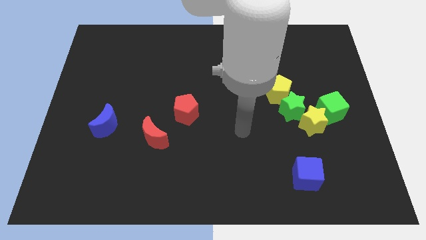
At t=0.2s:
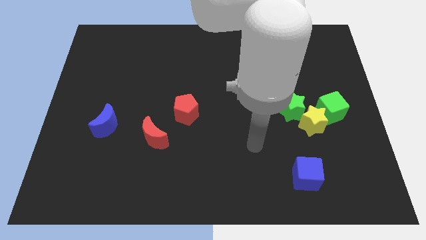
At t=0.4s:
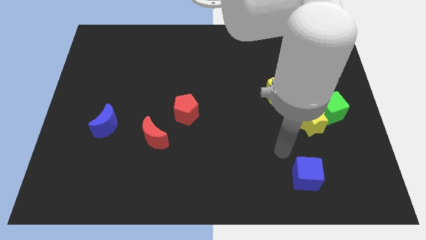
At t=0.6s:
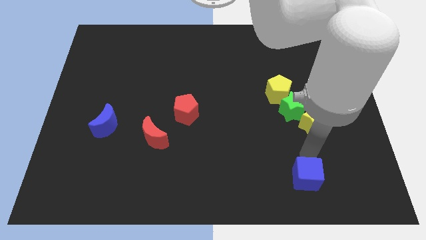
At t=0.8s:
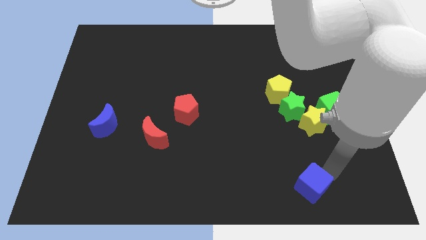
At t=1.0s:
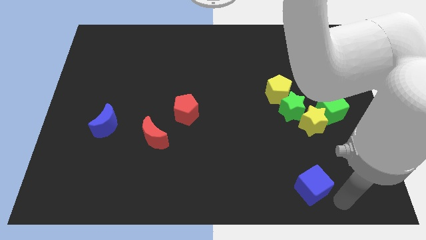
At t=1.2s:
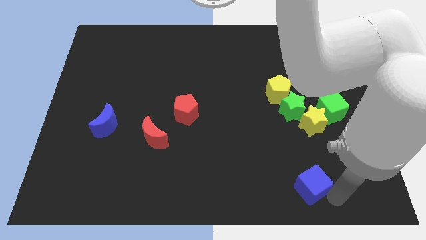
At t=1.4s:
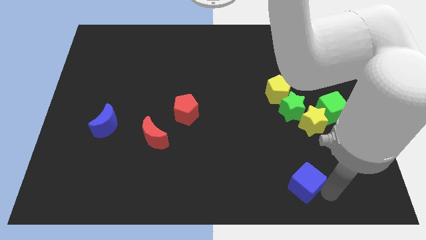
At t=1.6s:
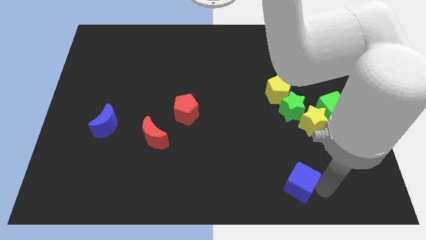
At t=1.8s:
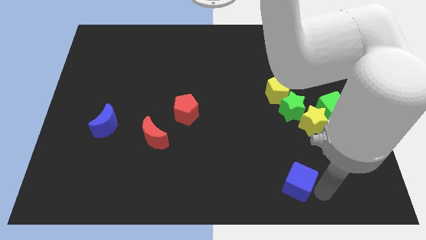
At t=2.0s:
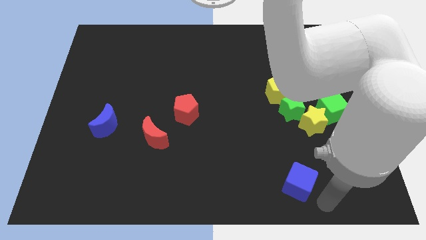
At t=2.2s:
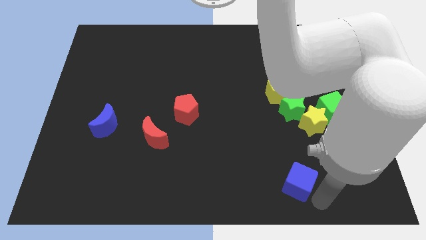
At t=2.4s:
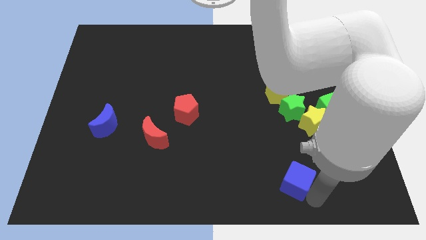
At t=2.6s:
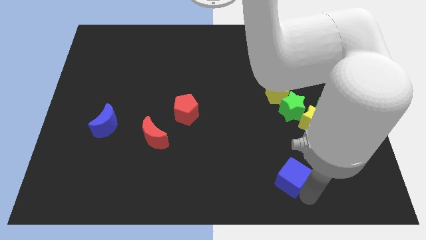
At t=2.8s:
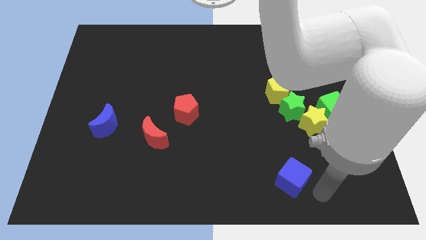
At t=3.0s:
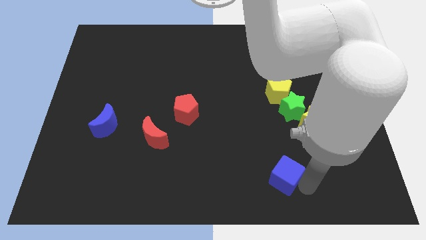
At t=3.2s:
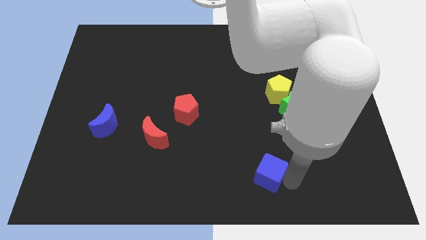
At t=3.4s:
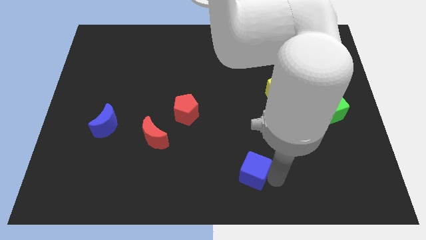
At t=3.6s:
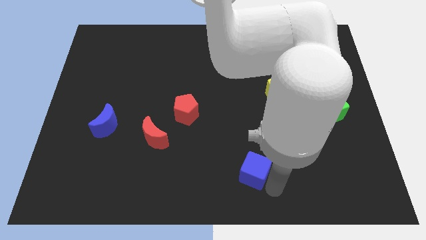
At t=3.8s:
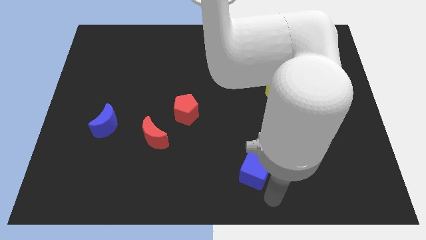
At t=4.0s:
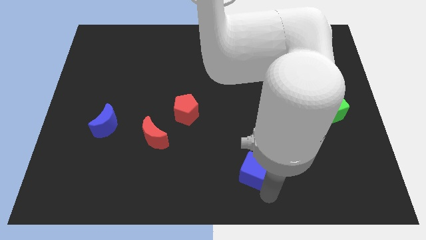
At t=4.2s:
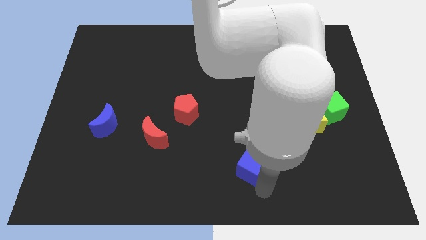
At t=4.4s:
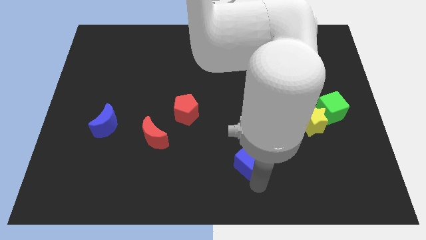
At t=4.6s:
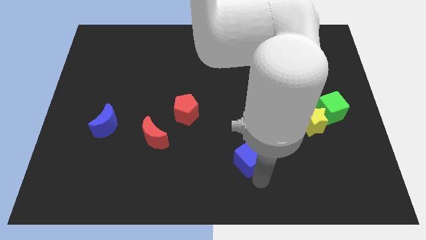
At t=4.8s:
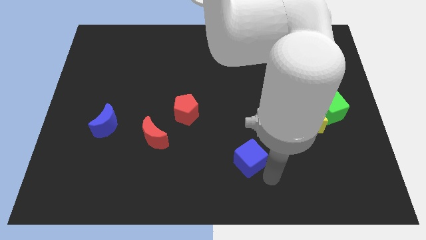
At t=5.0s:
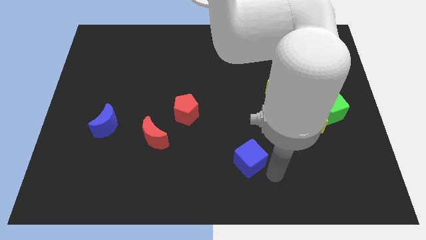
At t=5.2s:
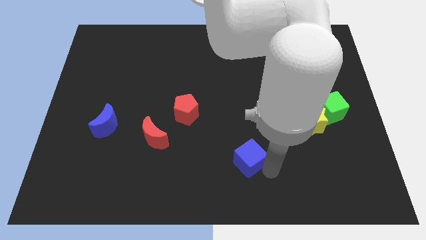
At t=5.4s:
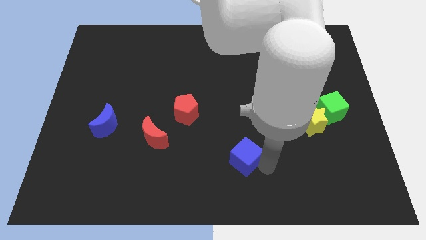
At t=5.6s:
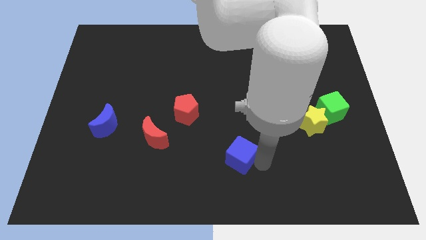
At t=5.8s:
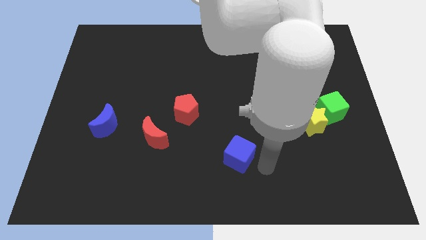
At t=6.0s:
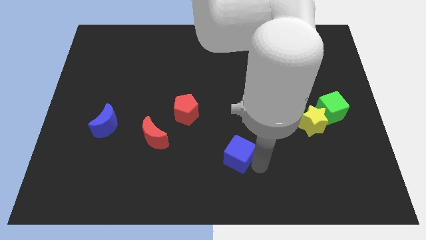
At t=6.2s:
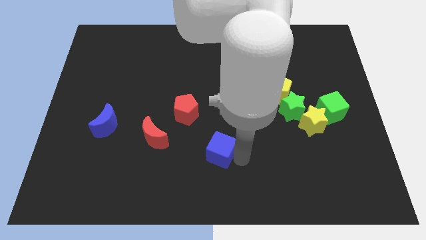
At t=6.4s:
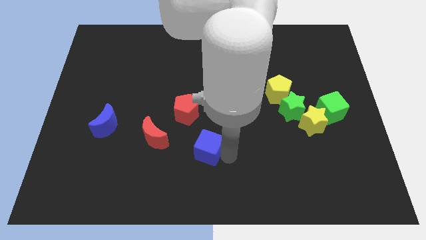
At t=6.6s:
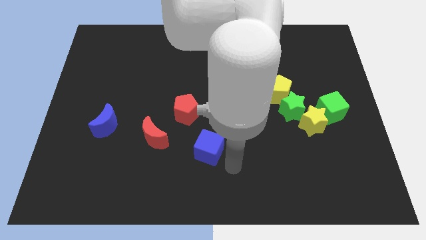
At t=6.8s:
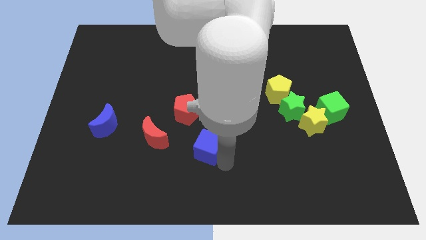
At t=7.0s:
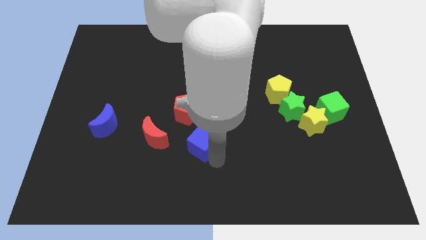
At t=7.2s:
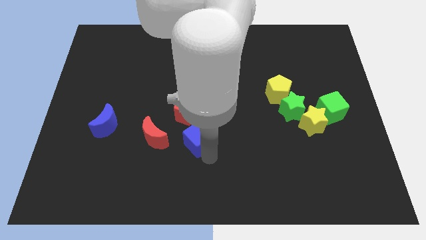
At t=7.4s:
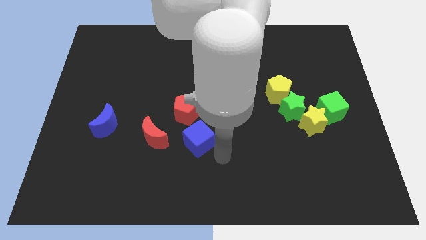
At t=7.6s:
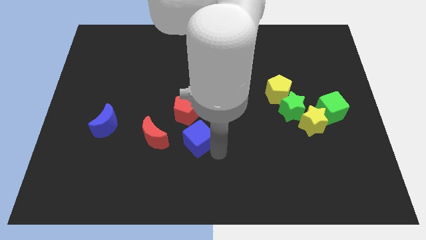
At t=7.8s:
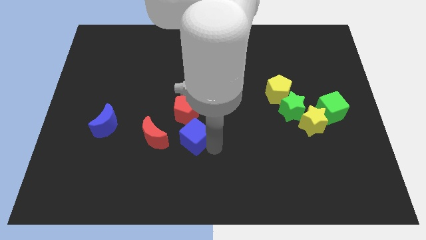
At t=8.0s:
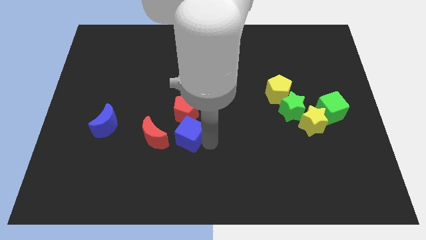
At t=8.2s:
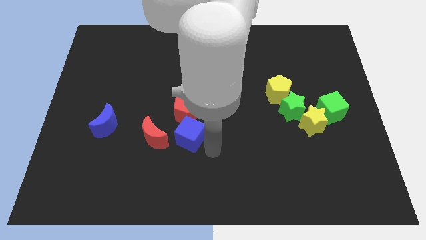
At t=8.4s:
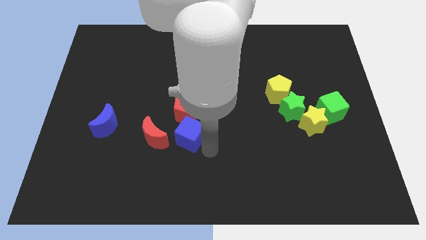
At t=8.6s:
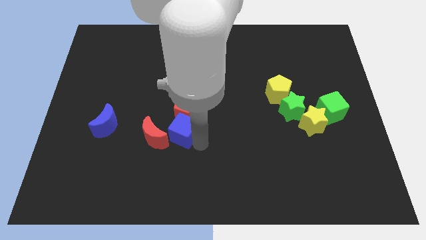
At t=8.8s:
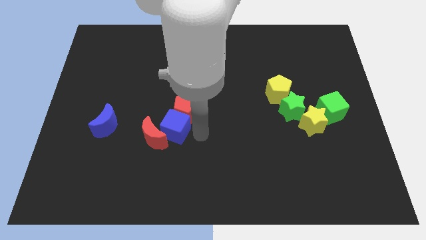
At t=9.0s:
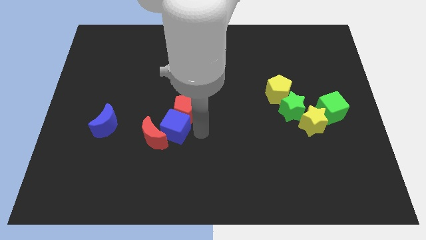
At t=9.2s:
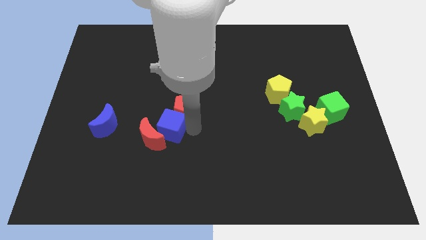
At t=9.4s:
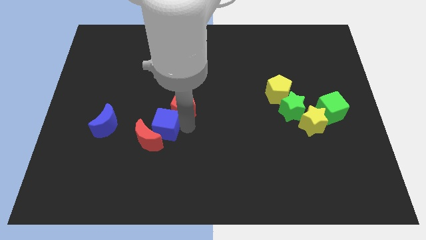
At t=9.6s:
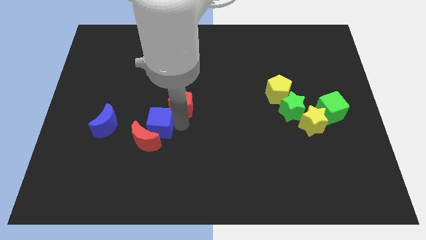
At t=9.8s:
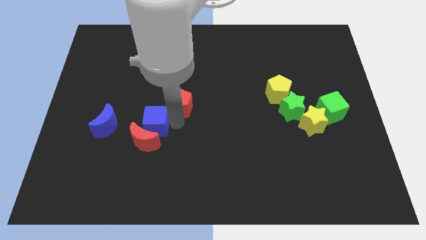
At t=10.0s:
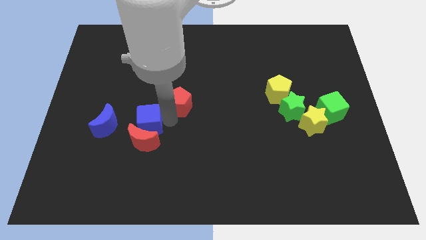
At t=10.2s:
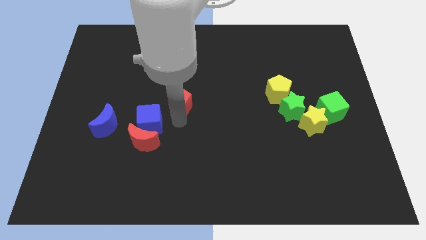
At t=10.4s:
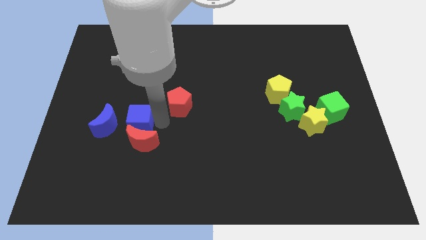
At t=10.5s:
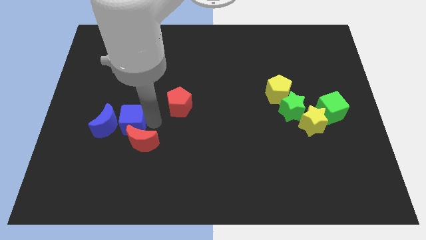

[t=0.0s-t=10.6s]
put the blue cube next to the blue moon

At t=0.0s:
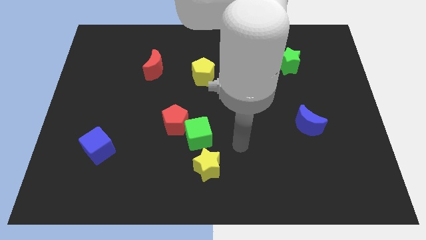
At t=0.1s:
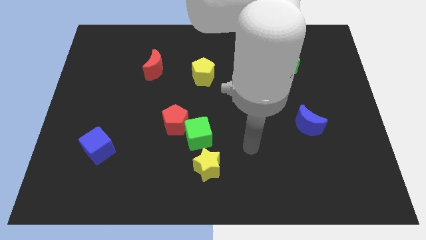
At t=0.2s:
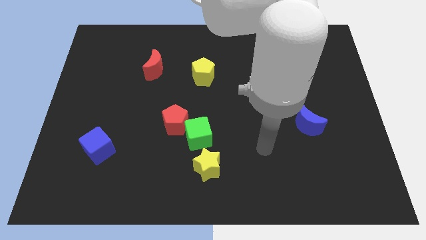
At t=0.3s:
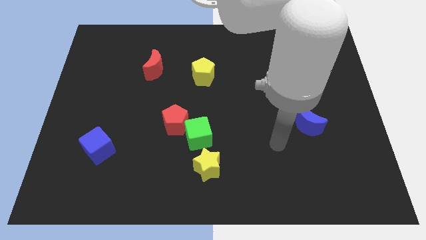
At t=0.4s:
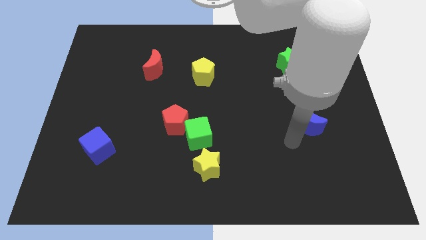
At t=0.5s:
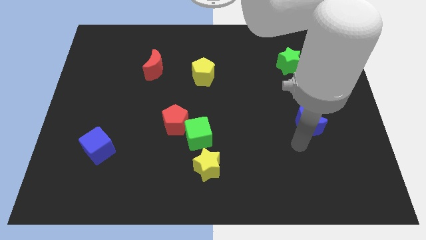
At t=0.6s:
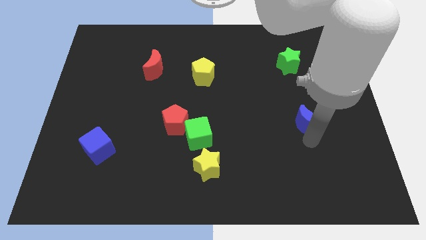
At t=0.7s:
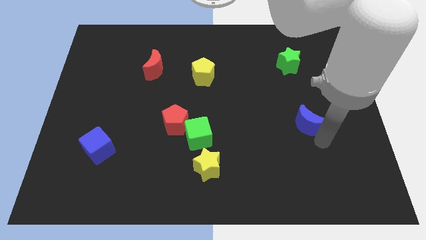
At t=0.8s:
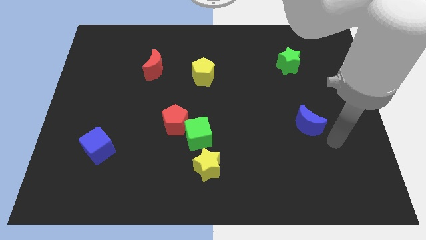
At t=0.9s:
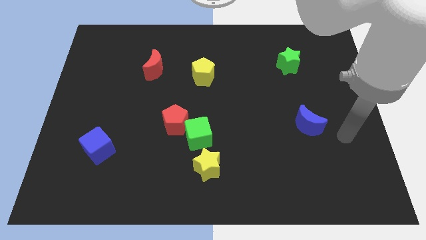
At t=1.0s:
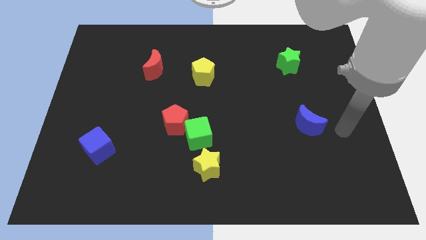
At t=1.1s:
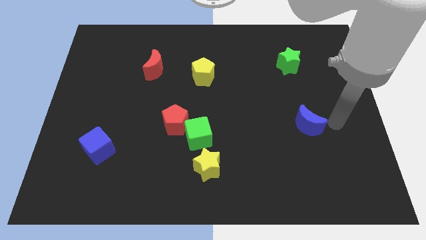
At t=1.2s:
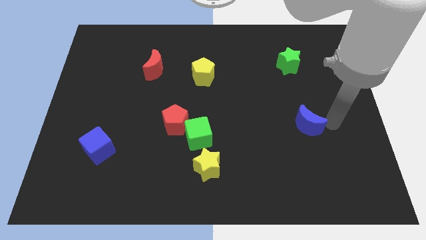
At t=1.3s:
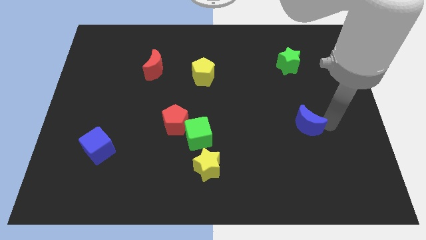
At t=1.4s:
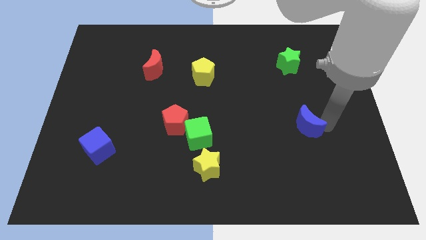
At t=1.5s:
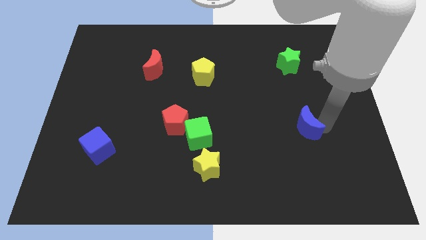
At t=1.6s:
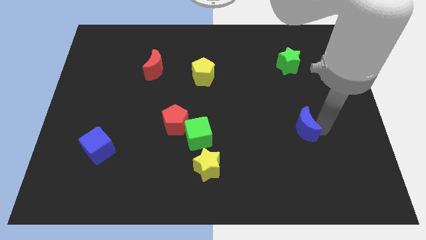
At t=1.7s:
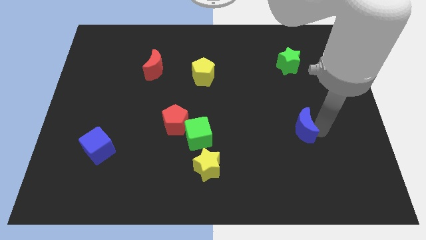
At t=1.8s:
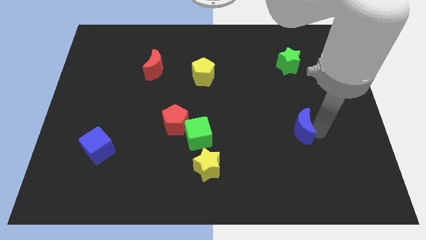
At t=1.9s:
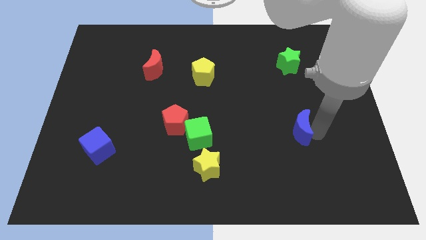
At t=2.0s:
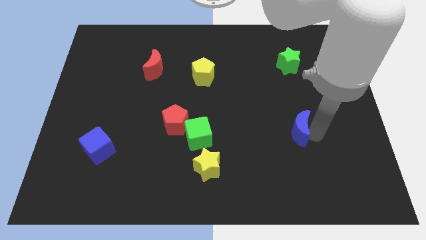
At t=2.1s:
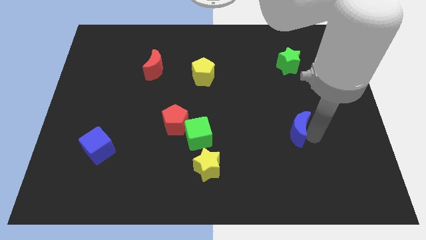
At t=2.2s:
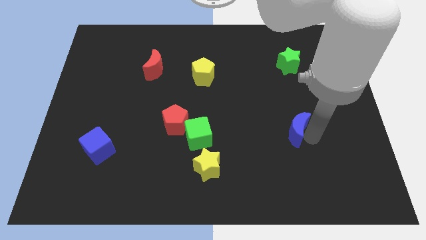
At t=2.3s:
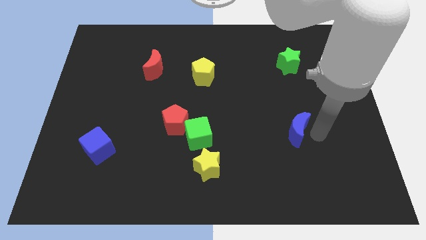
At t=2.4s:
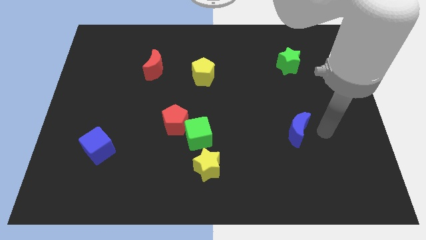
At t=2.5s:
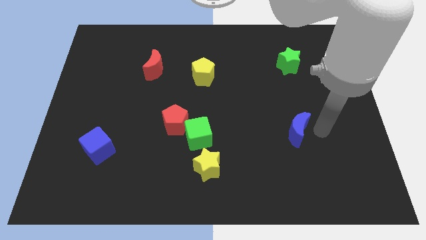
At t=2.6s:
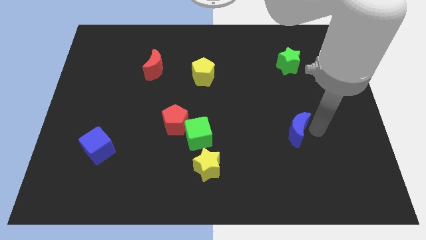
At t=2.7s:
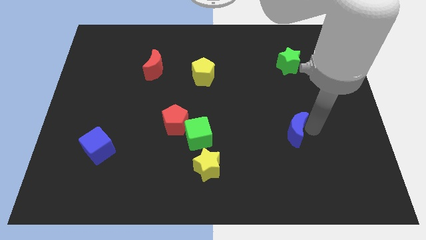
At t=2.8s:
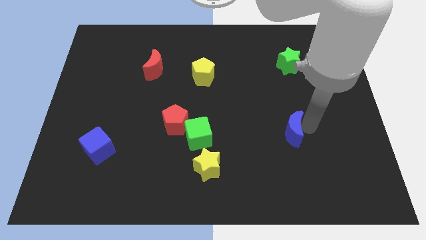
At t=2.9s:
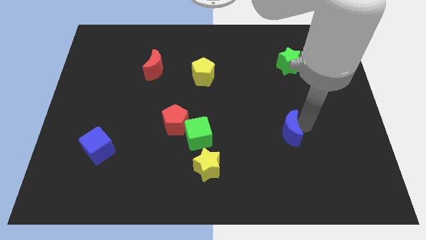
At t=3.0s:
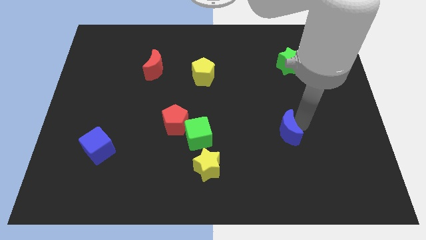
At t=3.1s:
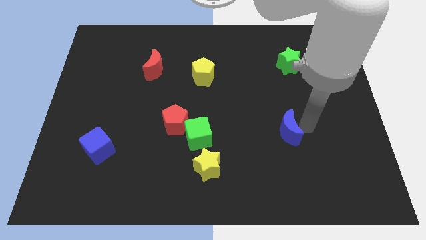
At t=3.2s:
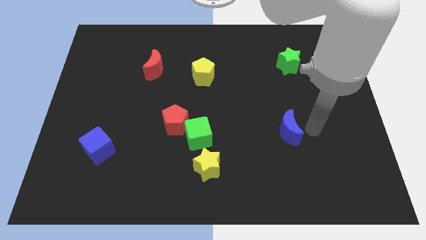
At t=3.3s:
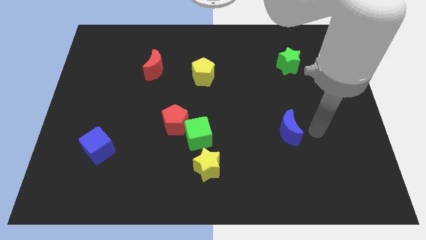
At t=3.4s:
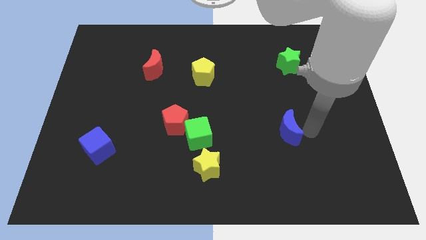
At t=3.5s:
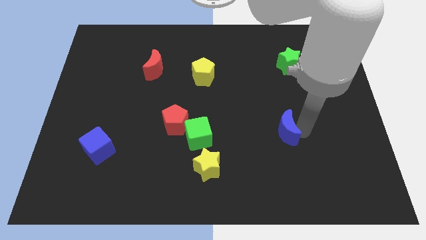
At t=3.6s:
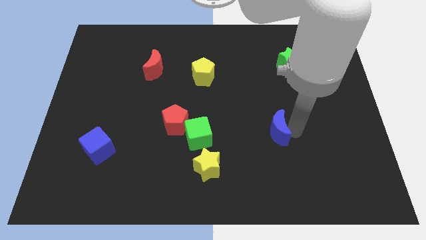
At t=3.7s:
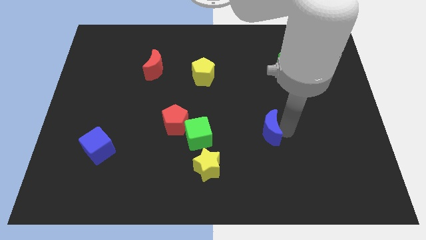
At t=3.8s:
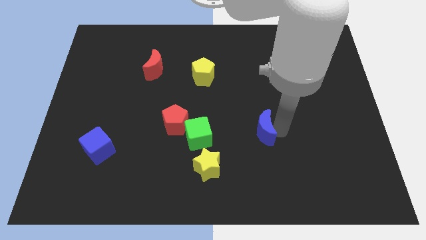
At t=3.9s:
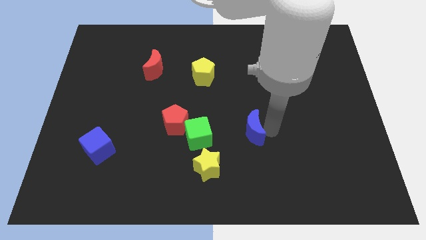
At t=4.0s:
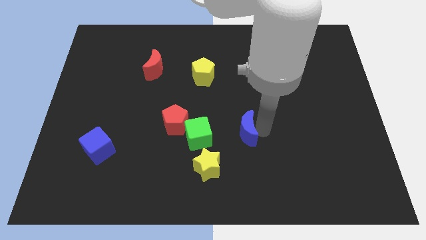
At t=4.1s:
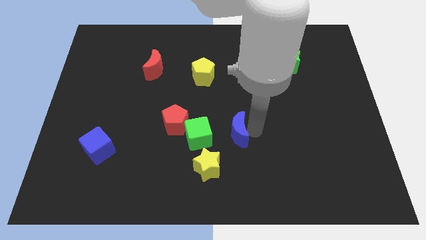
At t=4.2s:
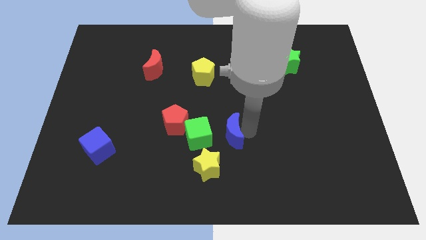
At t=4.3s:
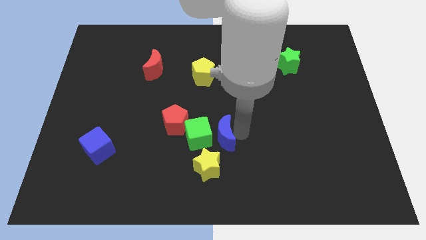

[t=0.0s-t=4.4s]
put the blue moon next to the green cube
